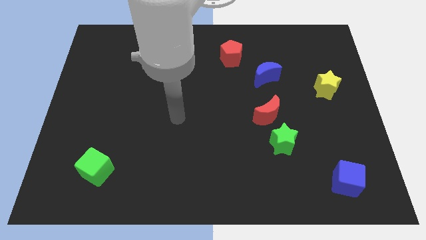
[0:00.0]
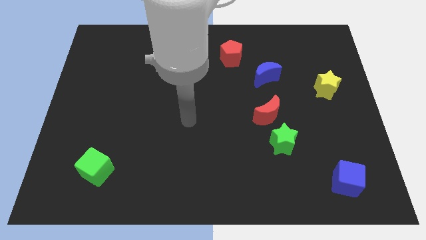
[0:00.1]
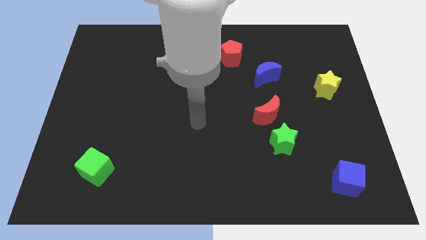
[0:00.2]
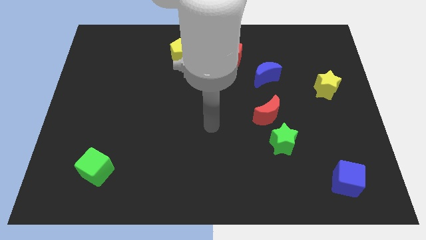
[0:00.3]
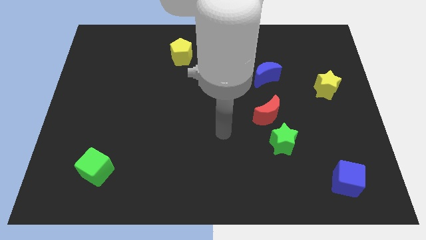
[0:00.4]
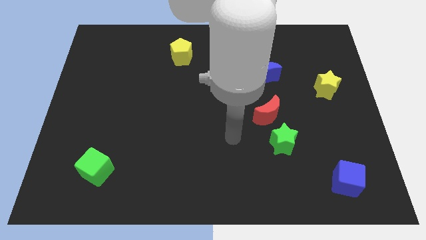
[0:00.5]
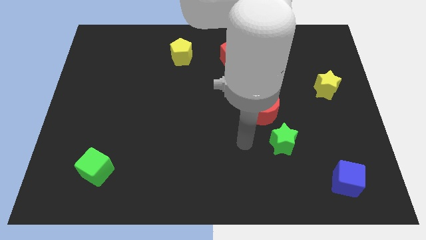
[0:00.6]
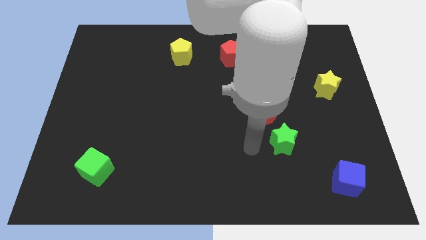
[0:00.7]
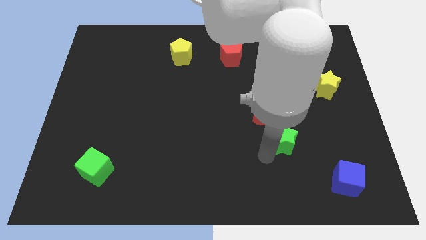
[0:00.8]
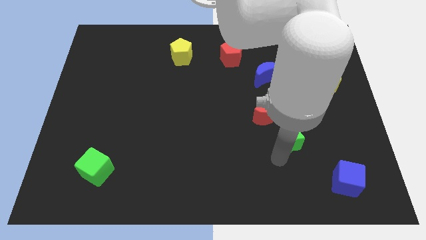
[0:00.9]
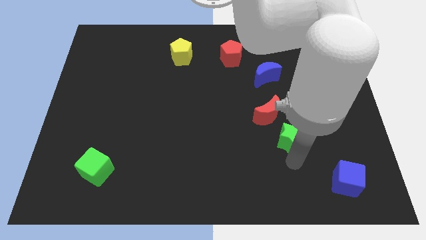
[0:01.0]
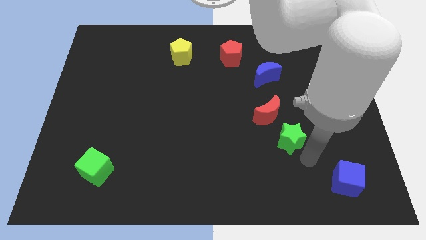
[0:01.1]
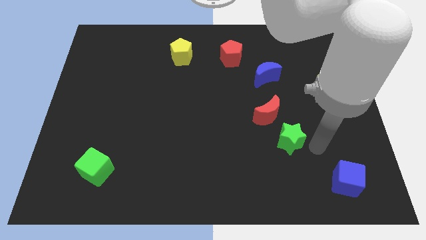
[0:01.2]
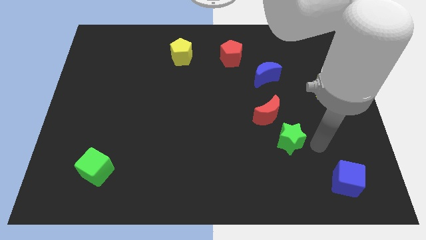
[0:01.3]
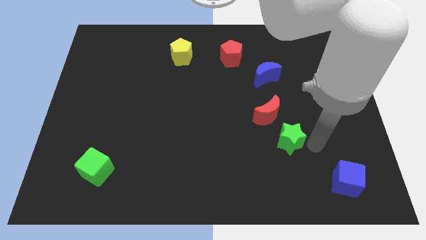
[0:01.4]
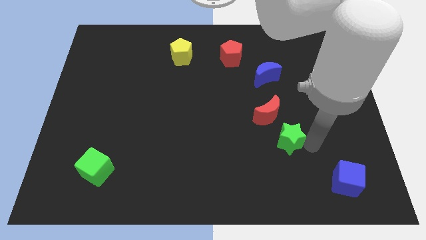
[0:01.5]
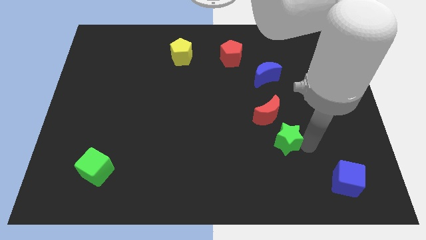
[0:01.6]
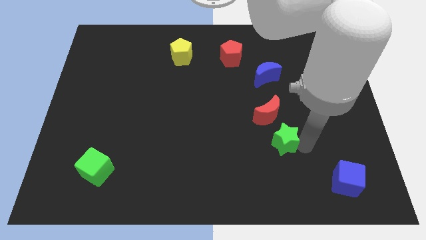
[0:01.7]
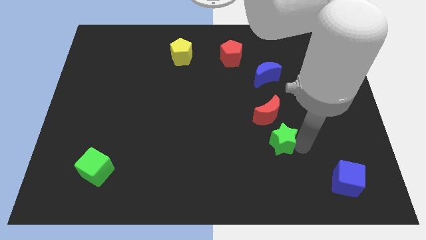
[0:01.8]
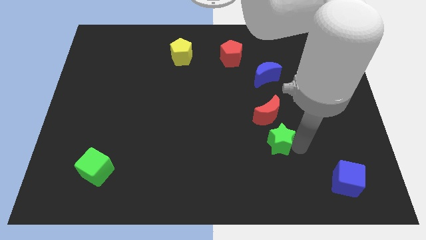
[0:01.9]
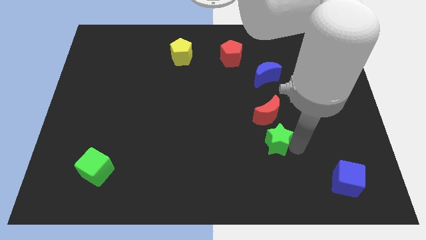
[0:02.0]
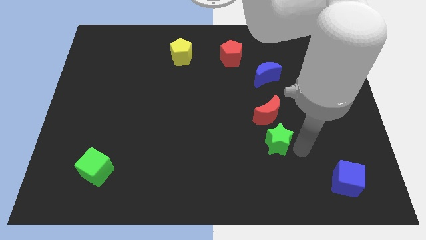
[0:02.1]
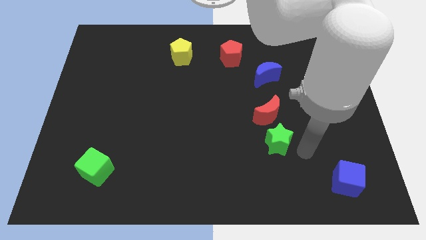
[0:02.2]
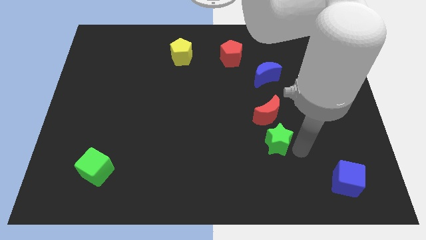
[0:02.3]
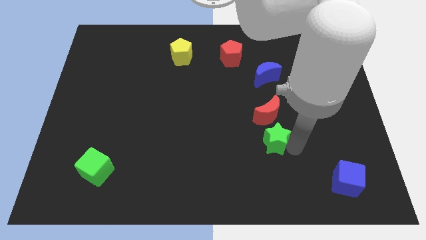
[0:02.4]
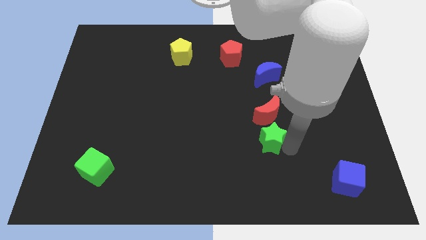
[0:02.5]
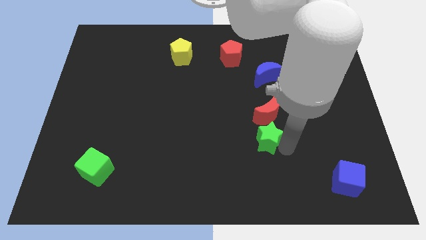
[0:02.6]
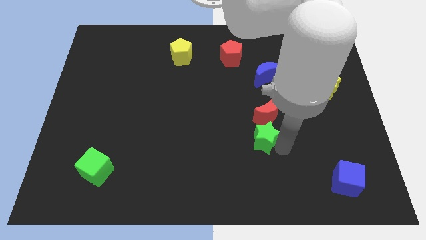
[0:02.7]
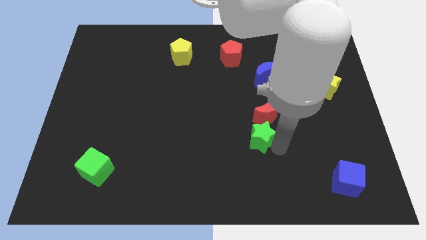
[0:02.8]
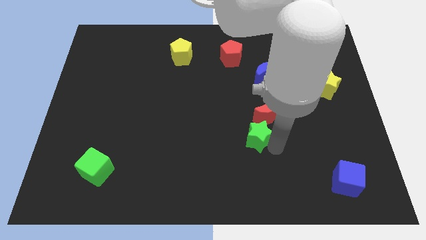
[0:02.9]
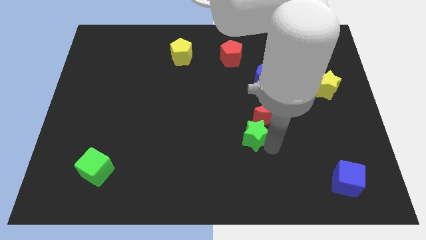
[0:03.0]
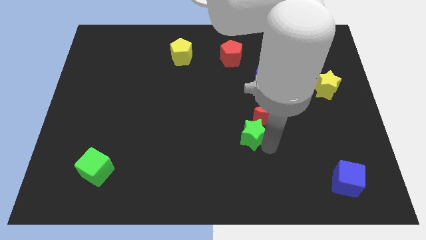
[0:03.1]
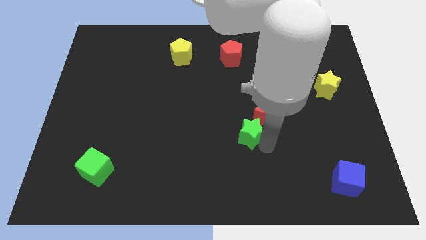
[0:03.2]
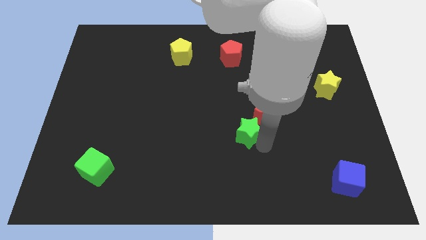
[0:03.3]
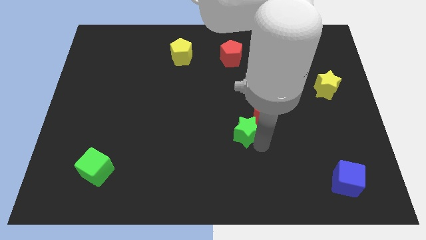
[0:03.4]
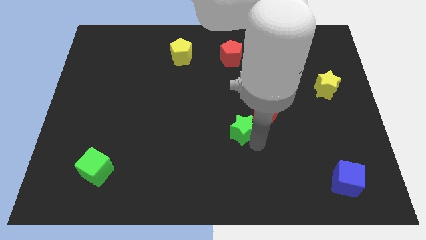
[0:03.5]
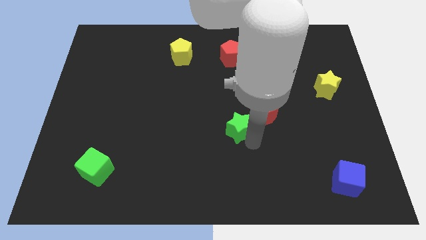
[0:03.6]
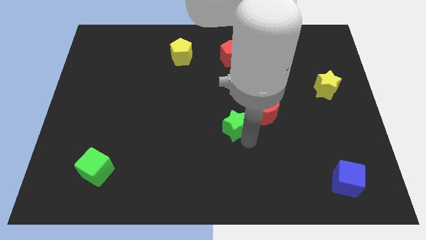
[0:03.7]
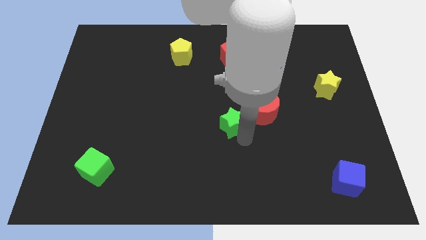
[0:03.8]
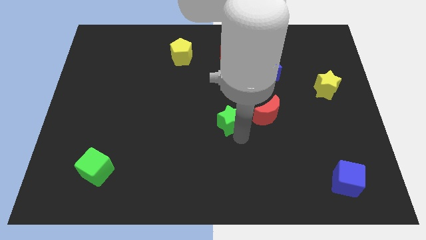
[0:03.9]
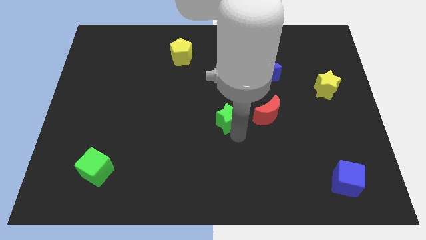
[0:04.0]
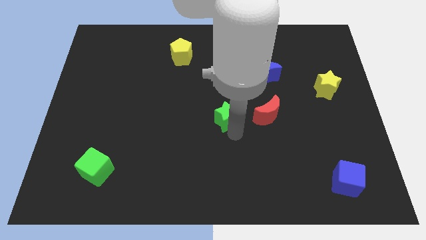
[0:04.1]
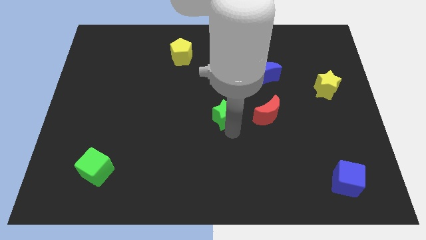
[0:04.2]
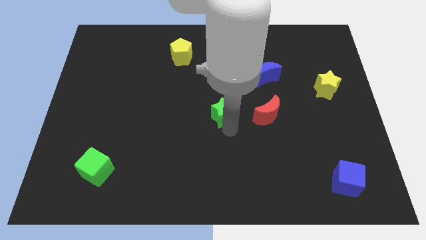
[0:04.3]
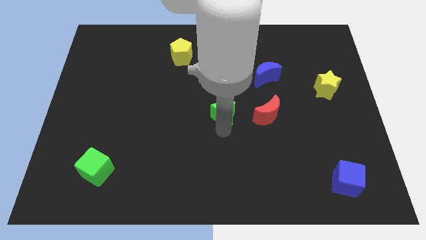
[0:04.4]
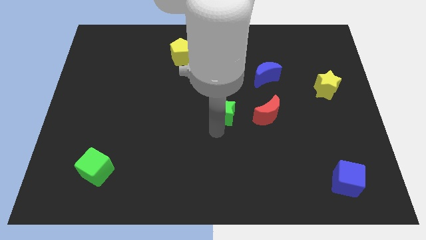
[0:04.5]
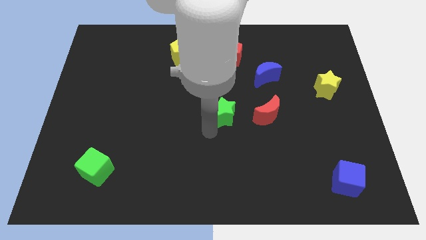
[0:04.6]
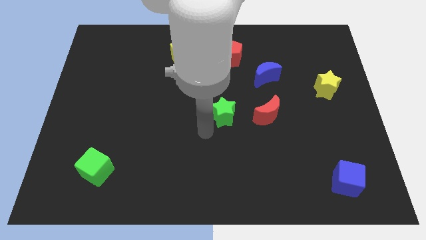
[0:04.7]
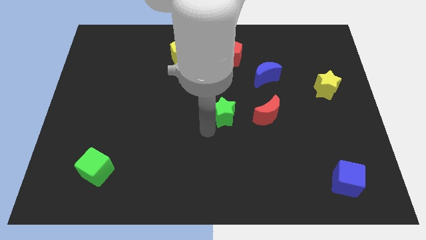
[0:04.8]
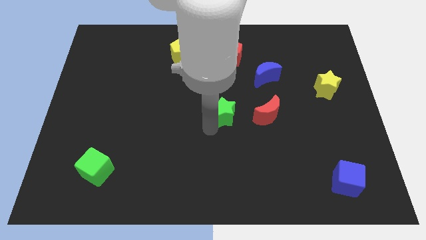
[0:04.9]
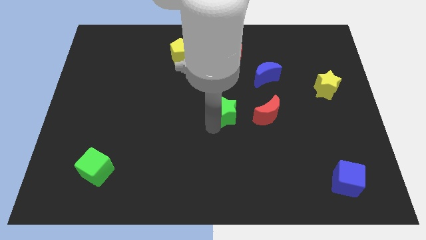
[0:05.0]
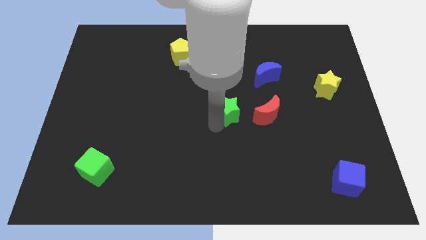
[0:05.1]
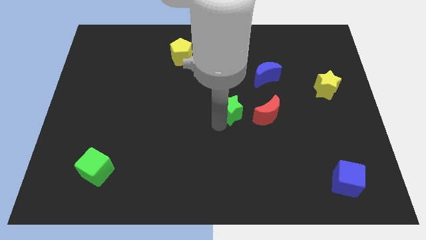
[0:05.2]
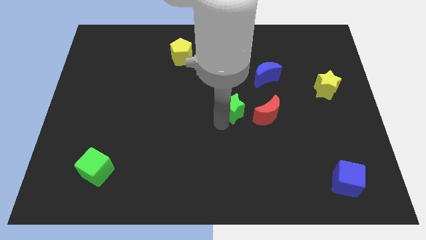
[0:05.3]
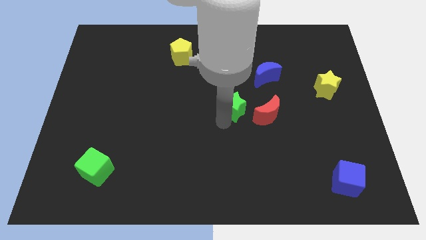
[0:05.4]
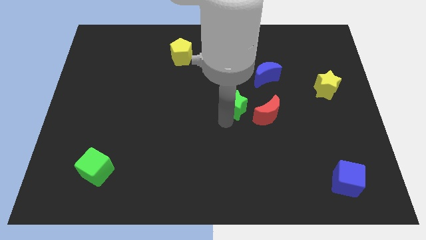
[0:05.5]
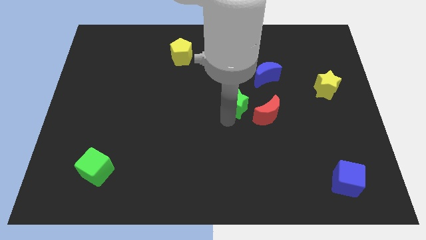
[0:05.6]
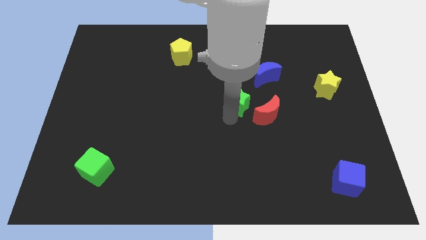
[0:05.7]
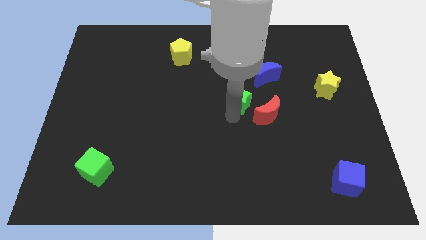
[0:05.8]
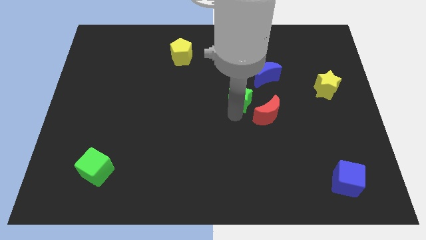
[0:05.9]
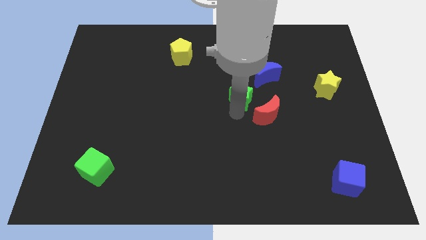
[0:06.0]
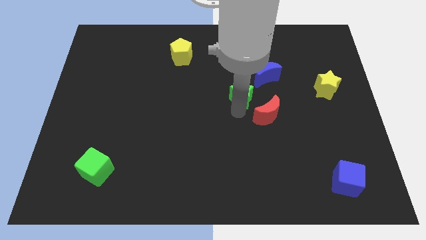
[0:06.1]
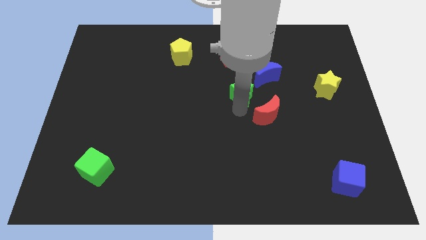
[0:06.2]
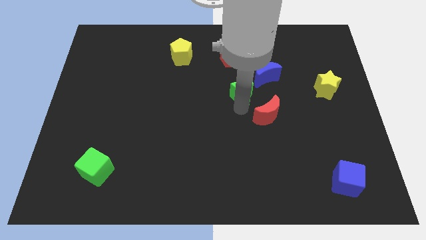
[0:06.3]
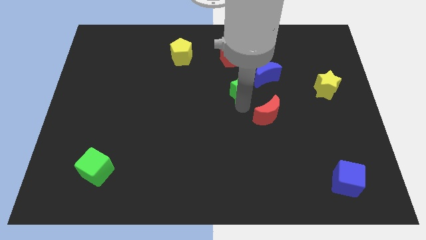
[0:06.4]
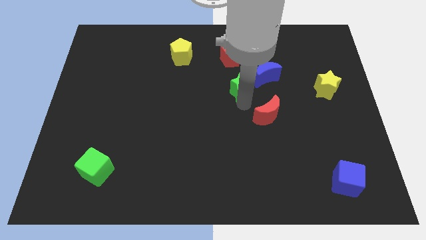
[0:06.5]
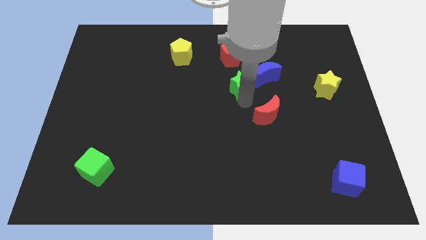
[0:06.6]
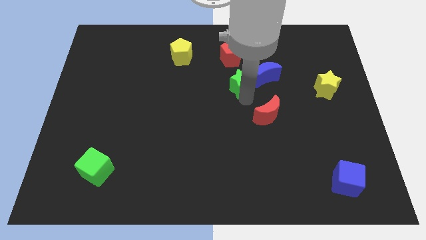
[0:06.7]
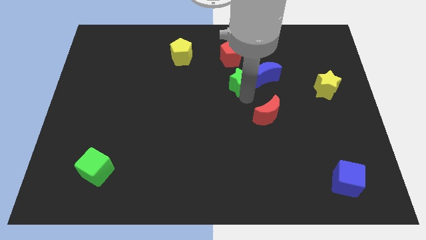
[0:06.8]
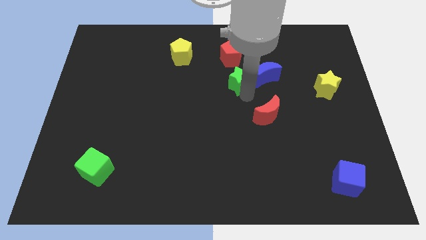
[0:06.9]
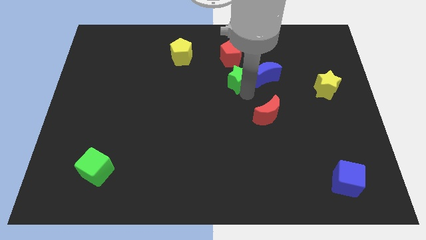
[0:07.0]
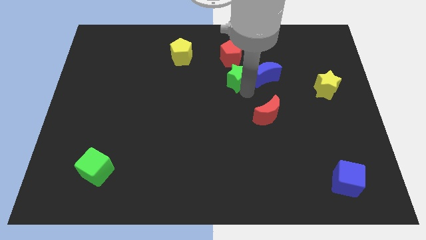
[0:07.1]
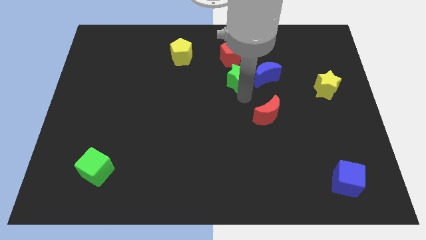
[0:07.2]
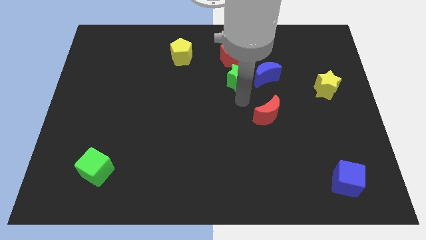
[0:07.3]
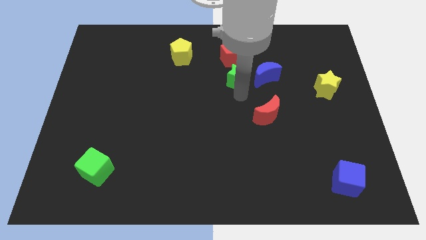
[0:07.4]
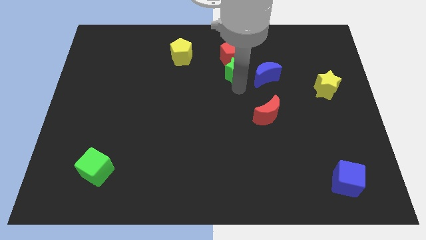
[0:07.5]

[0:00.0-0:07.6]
put the green star towards the red pentagon
